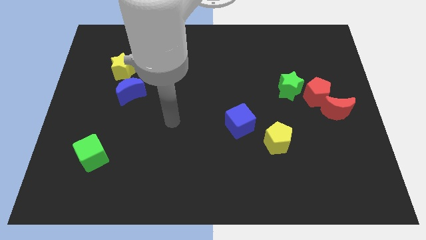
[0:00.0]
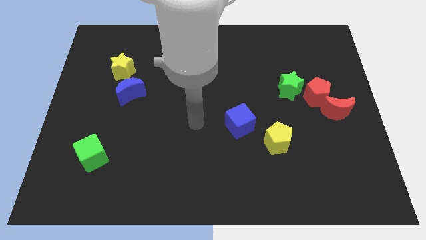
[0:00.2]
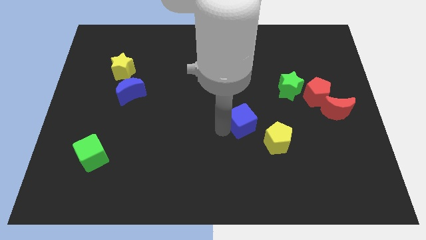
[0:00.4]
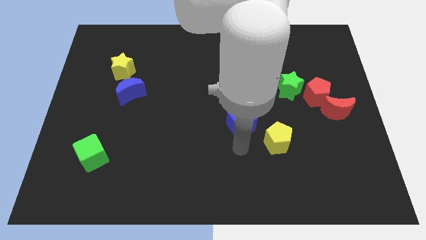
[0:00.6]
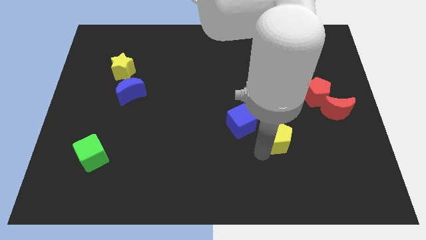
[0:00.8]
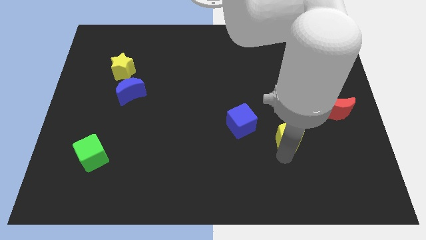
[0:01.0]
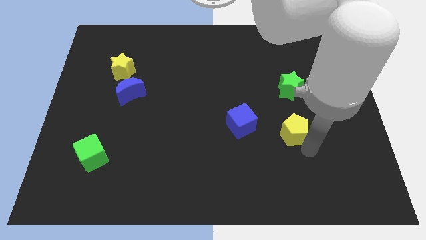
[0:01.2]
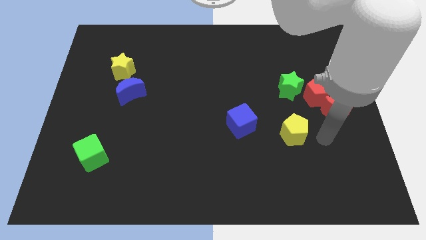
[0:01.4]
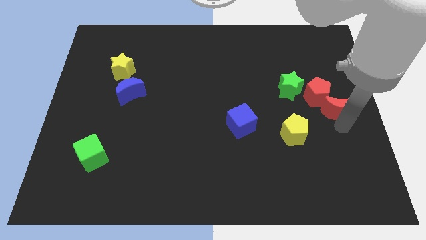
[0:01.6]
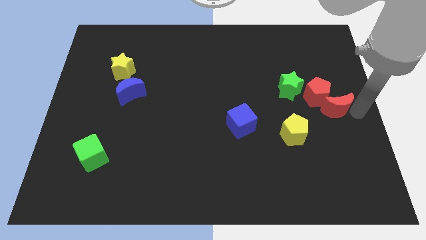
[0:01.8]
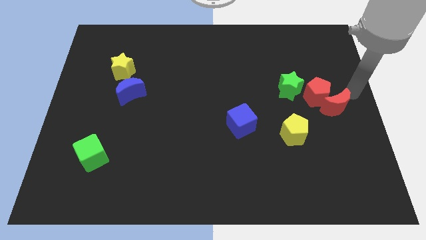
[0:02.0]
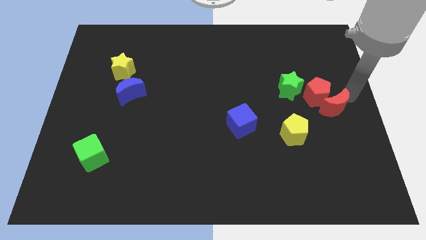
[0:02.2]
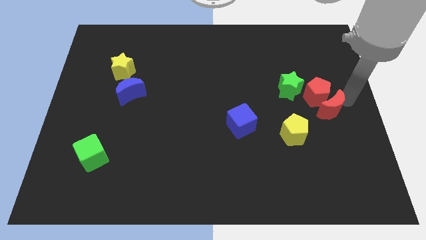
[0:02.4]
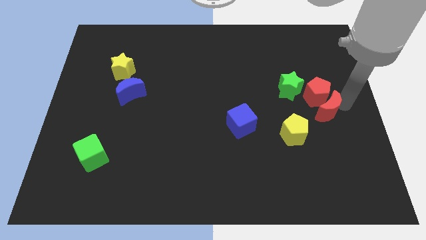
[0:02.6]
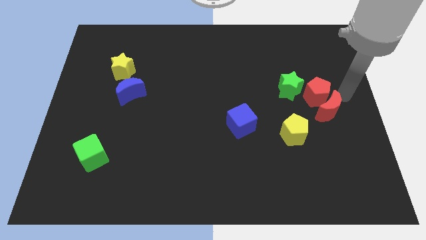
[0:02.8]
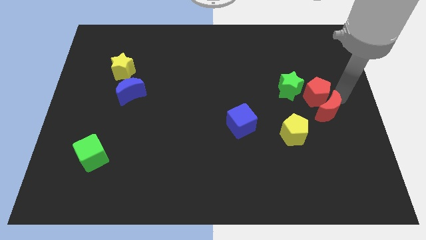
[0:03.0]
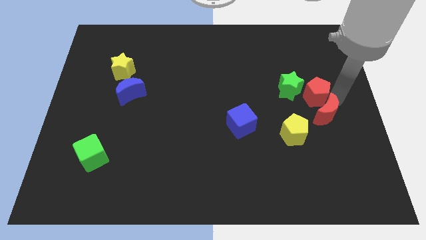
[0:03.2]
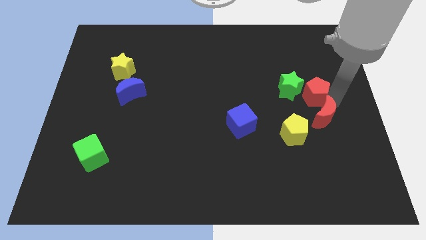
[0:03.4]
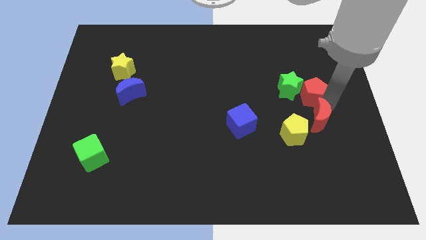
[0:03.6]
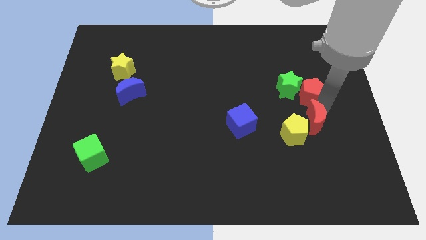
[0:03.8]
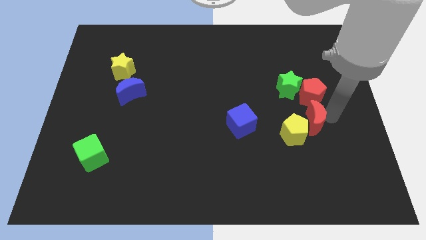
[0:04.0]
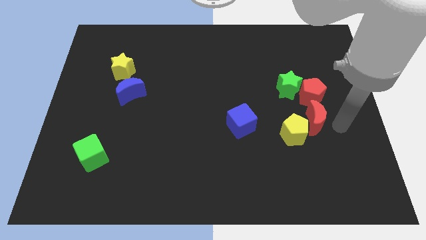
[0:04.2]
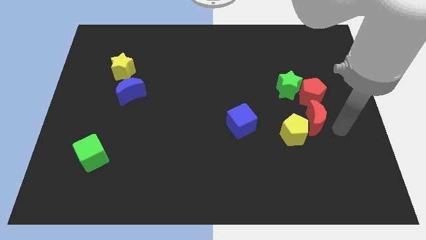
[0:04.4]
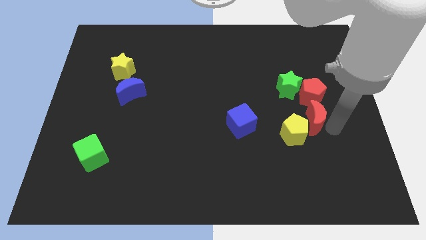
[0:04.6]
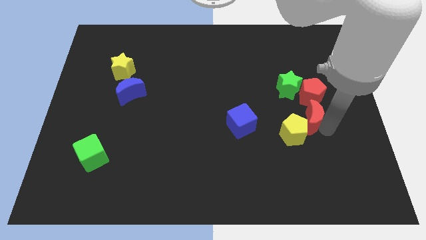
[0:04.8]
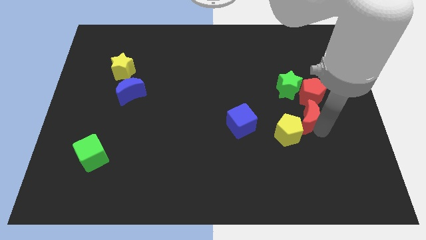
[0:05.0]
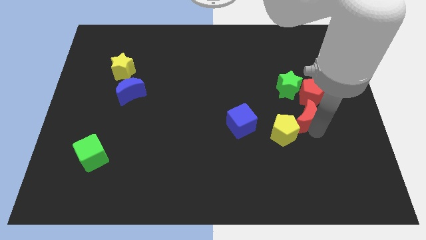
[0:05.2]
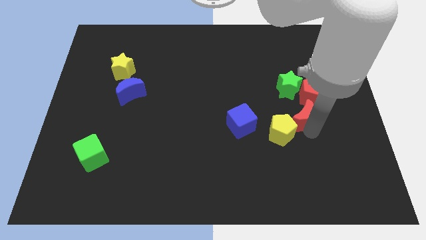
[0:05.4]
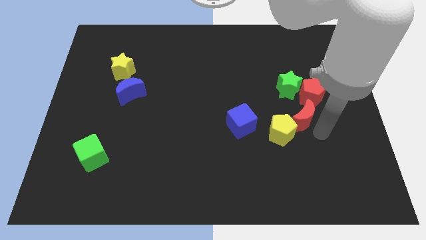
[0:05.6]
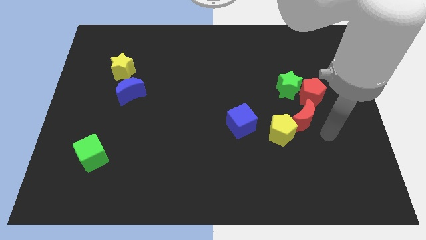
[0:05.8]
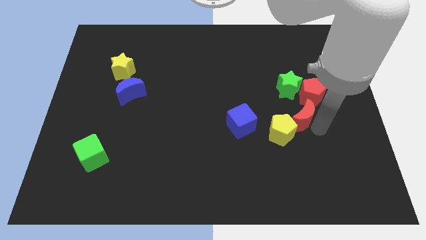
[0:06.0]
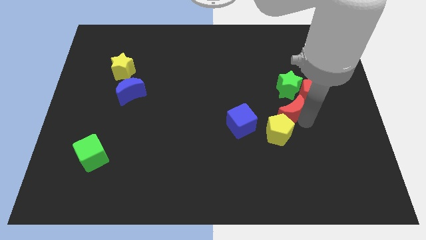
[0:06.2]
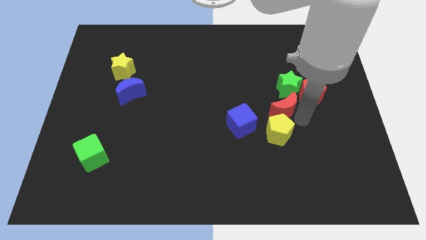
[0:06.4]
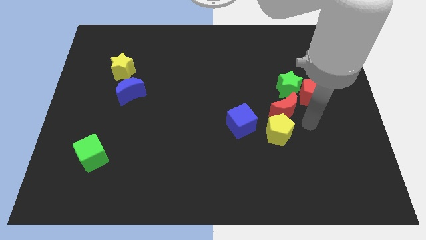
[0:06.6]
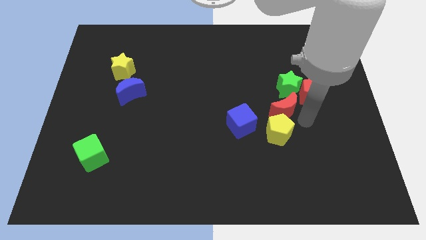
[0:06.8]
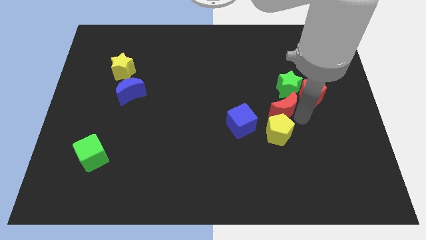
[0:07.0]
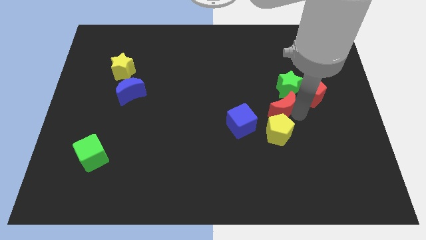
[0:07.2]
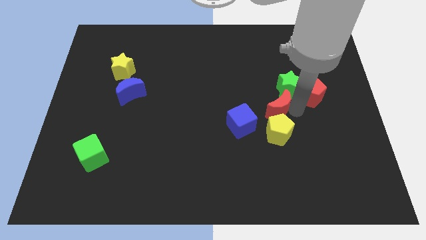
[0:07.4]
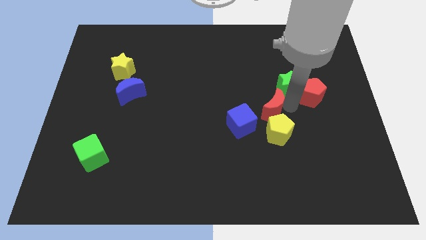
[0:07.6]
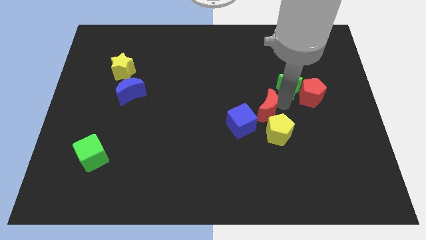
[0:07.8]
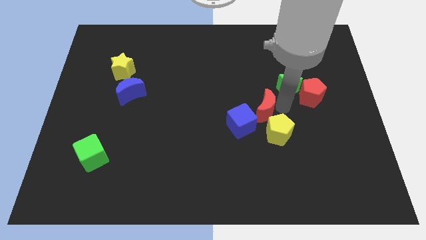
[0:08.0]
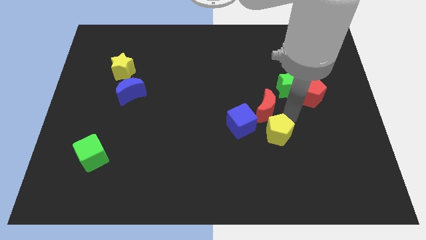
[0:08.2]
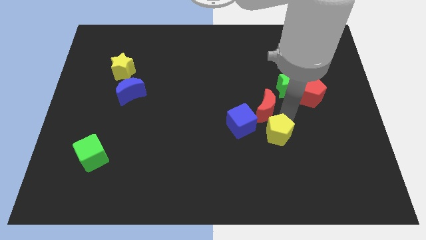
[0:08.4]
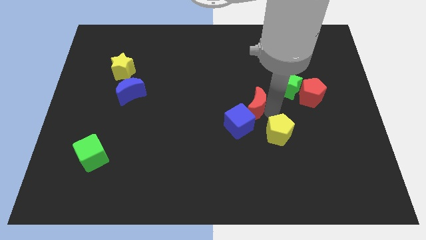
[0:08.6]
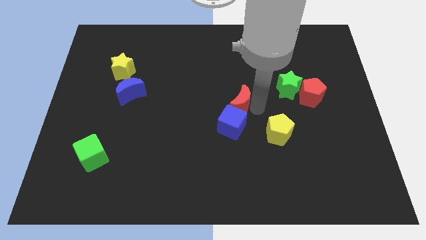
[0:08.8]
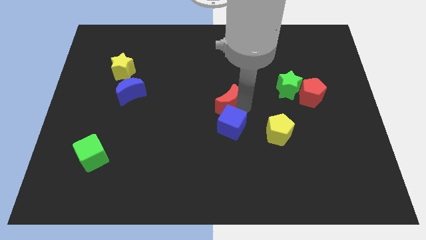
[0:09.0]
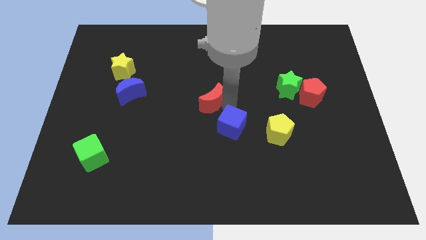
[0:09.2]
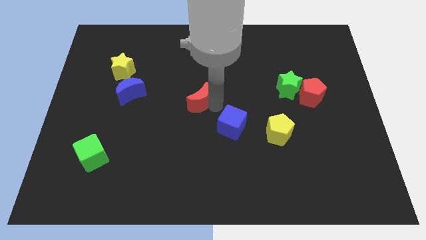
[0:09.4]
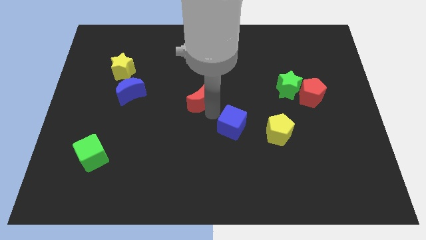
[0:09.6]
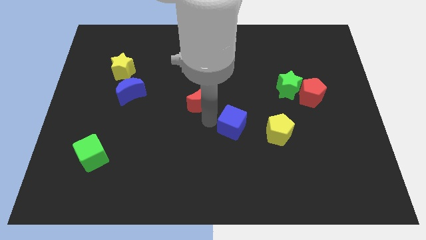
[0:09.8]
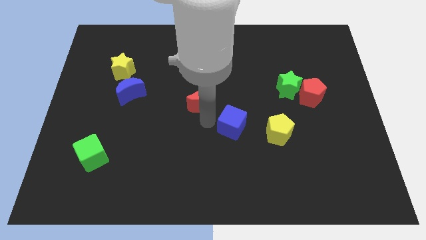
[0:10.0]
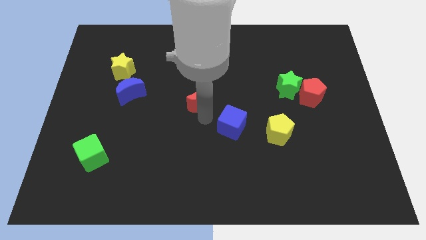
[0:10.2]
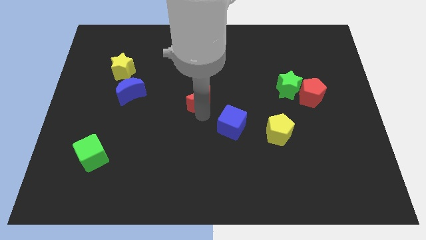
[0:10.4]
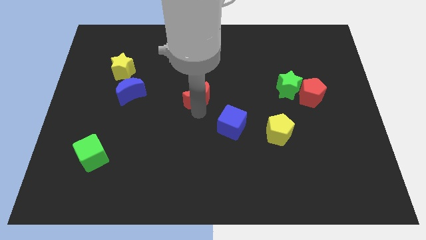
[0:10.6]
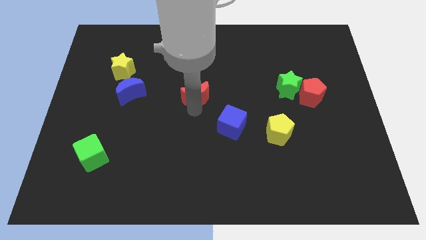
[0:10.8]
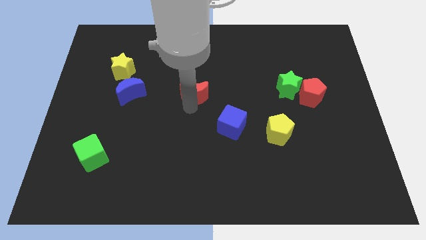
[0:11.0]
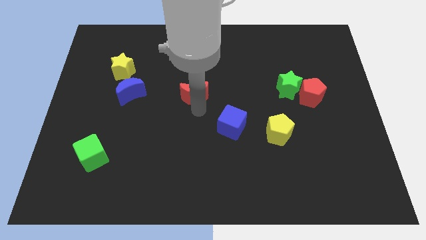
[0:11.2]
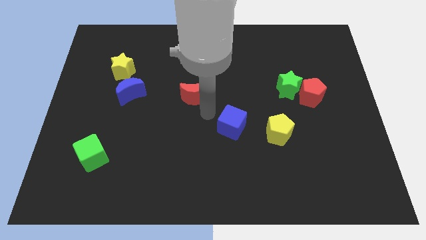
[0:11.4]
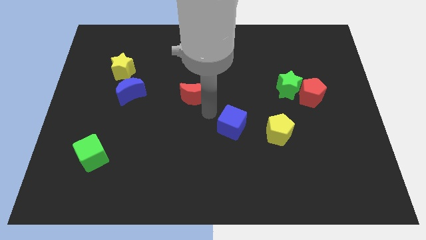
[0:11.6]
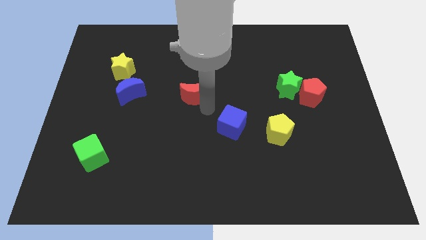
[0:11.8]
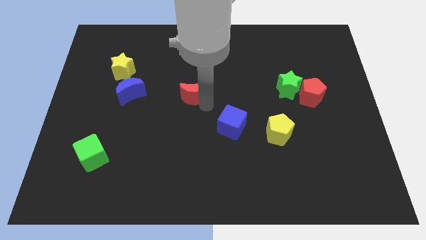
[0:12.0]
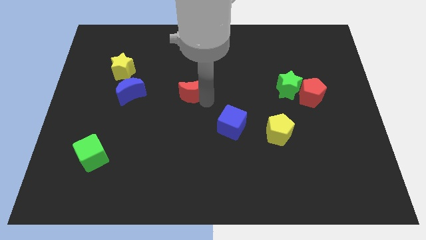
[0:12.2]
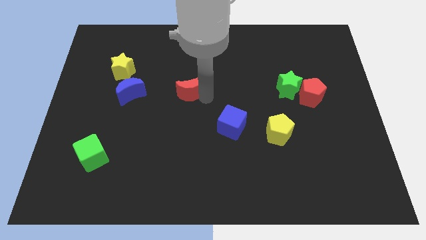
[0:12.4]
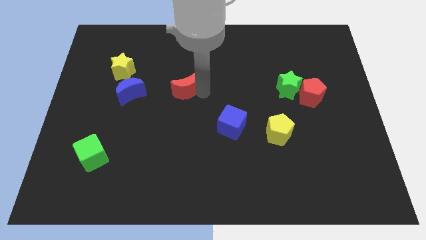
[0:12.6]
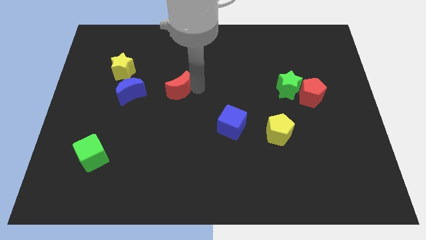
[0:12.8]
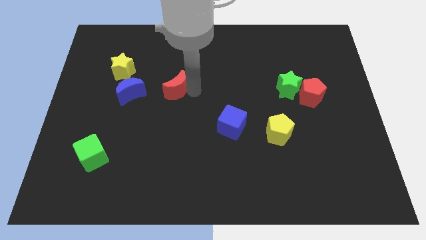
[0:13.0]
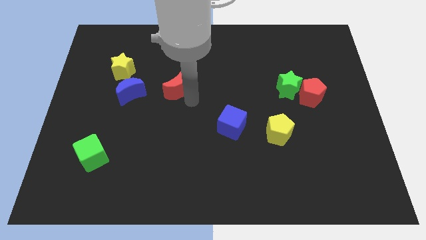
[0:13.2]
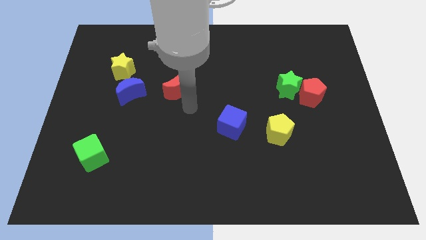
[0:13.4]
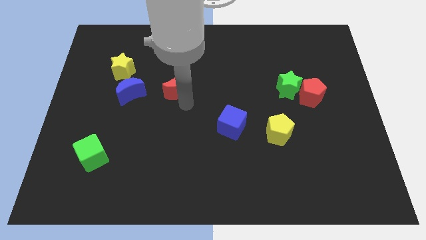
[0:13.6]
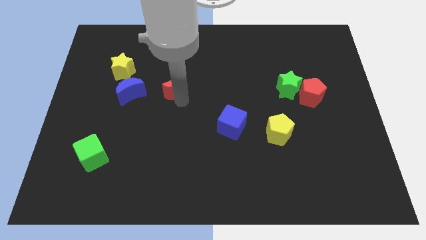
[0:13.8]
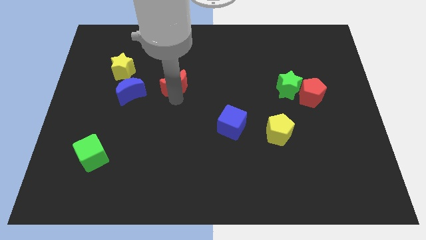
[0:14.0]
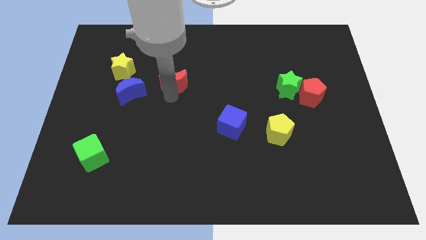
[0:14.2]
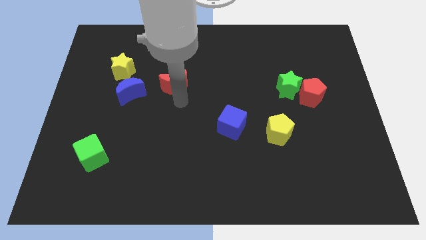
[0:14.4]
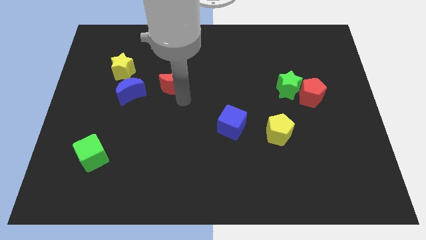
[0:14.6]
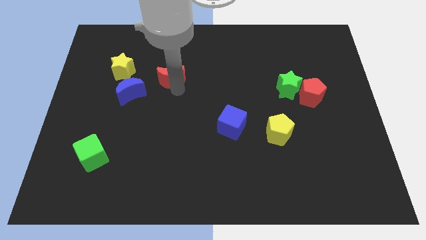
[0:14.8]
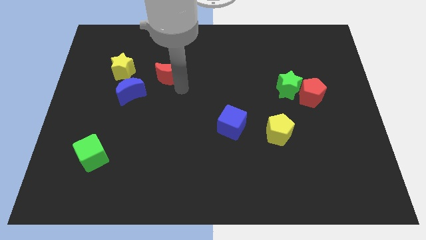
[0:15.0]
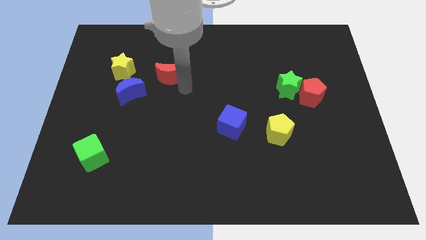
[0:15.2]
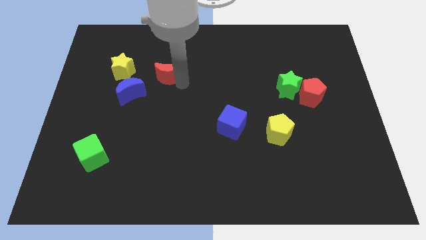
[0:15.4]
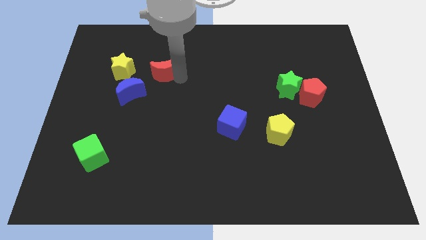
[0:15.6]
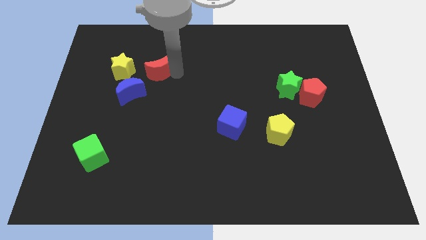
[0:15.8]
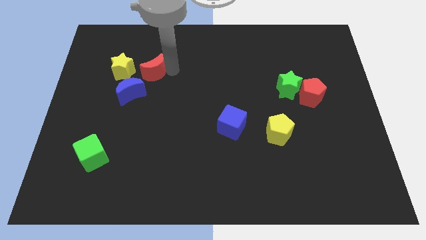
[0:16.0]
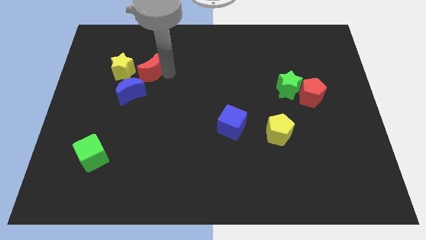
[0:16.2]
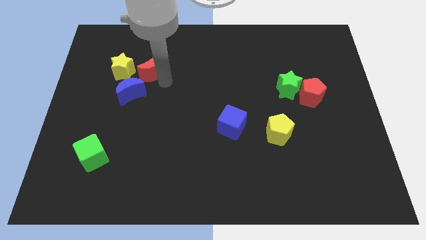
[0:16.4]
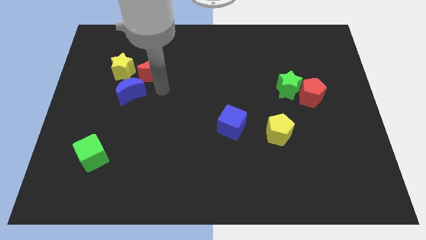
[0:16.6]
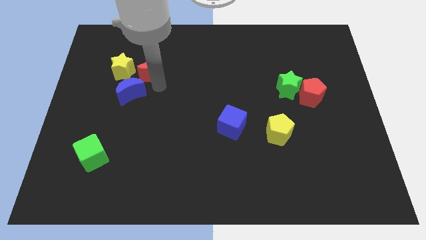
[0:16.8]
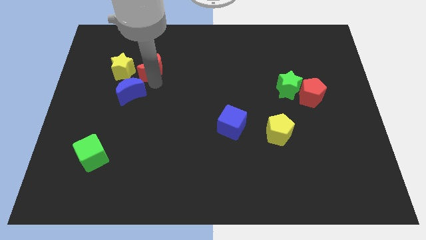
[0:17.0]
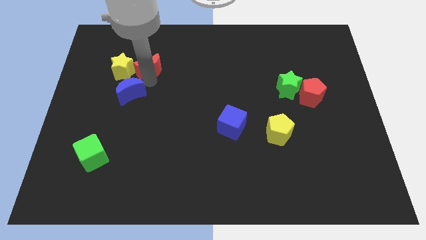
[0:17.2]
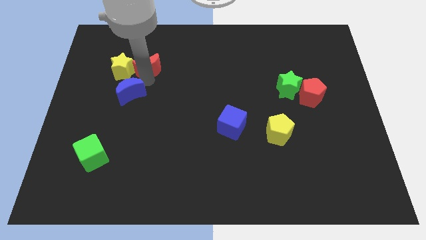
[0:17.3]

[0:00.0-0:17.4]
move the red moon diagonally up and to the right of the yellow star
